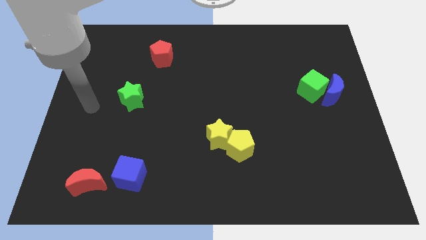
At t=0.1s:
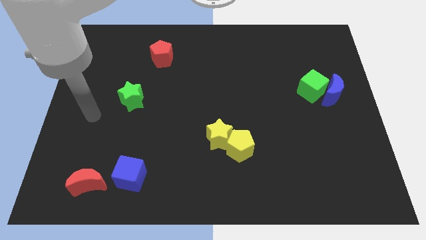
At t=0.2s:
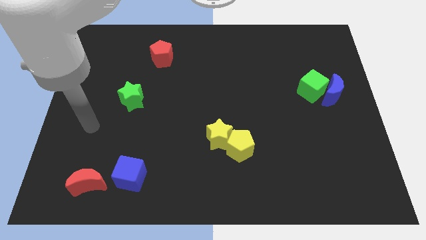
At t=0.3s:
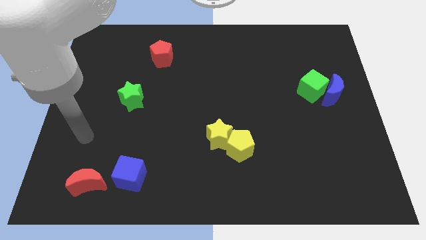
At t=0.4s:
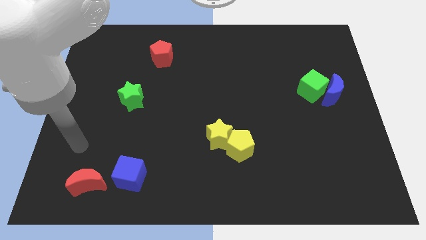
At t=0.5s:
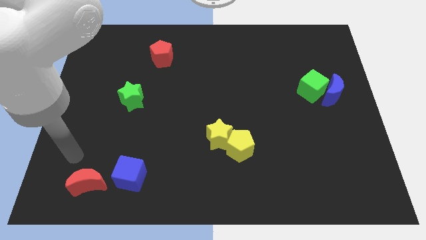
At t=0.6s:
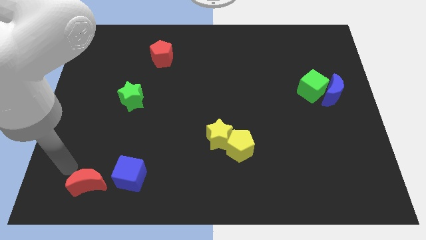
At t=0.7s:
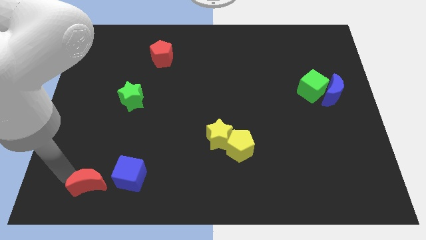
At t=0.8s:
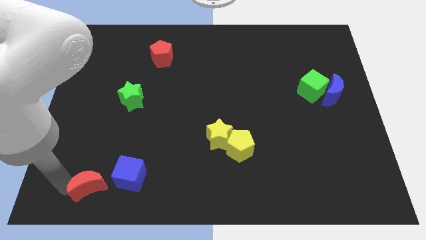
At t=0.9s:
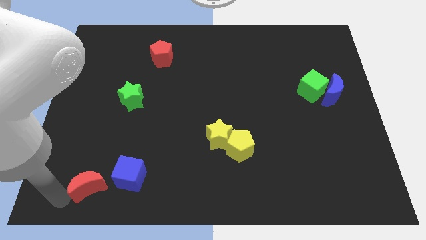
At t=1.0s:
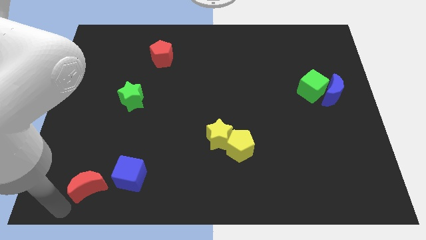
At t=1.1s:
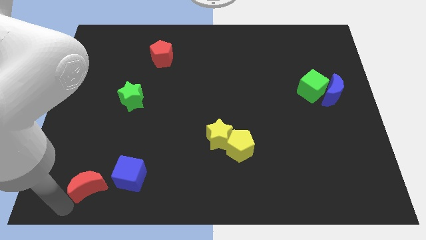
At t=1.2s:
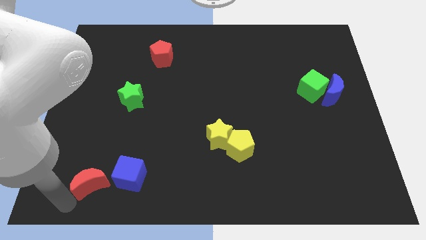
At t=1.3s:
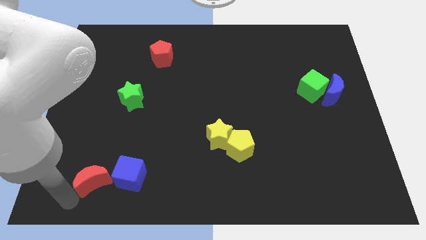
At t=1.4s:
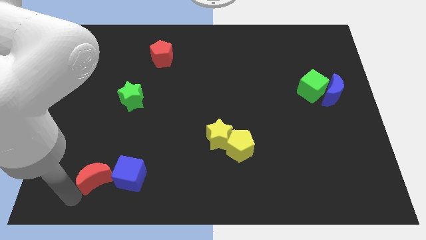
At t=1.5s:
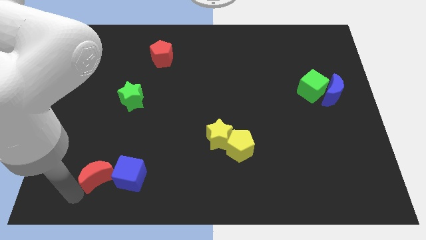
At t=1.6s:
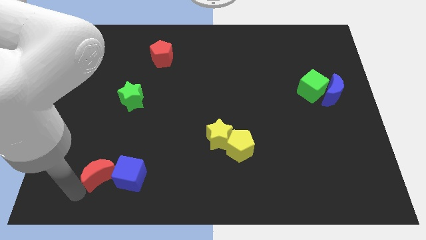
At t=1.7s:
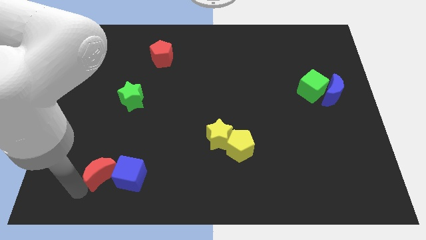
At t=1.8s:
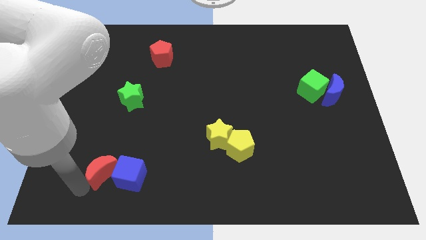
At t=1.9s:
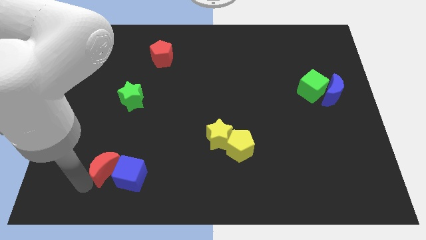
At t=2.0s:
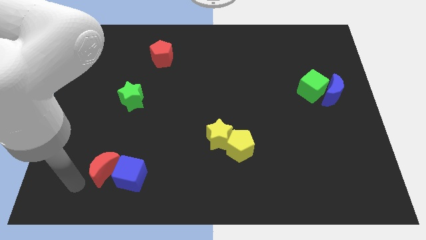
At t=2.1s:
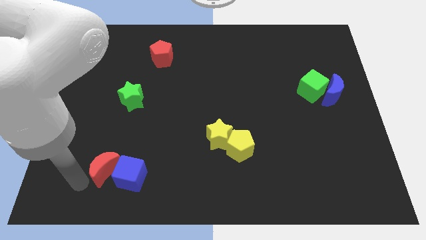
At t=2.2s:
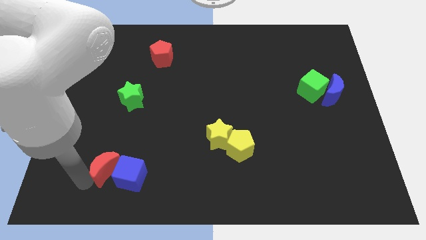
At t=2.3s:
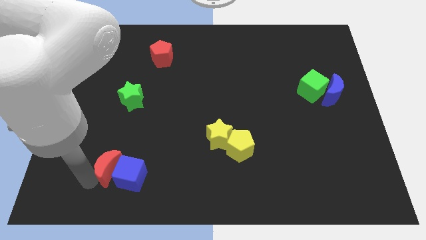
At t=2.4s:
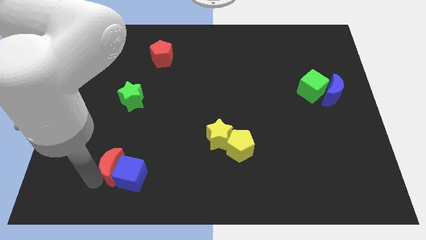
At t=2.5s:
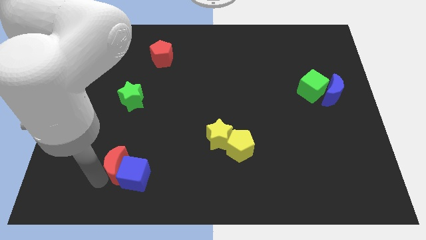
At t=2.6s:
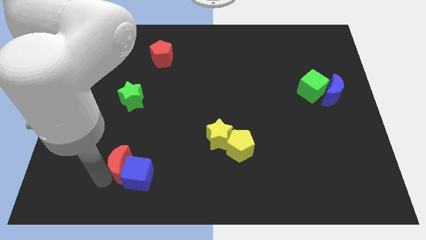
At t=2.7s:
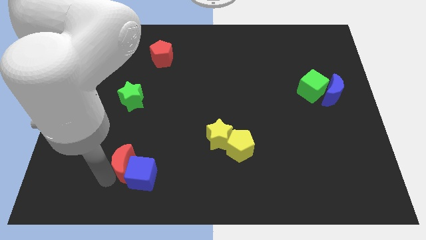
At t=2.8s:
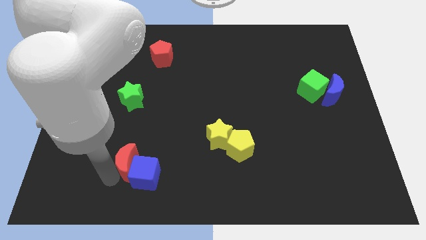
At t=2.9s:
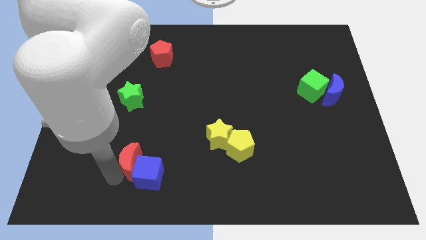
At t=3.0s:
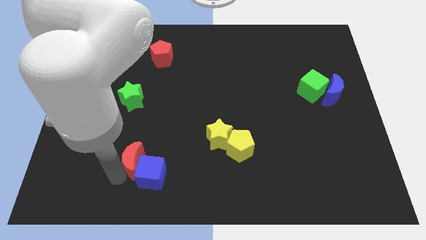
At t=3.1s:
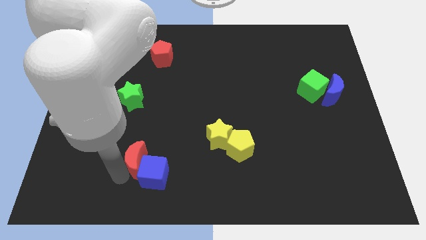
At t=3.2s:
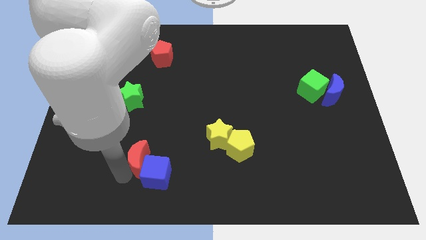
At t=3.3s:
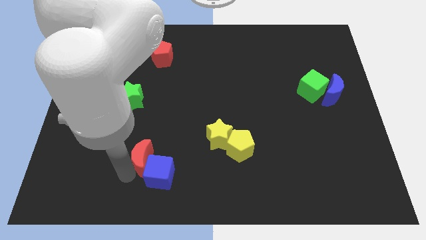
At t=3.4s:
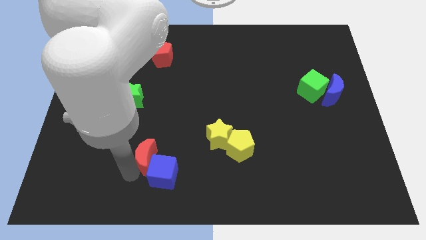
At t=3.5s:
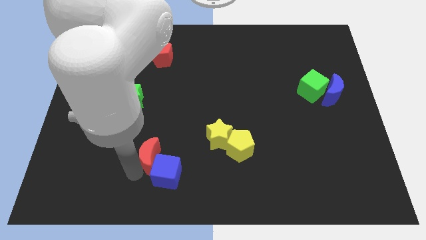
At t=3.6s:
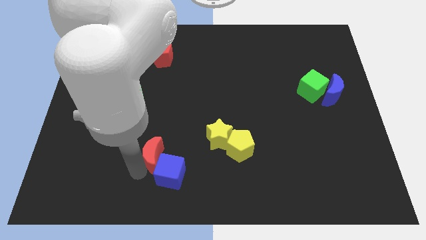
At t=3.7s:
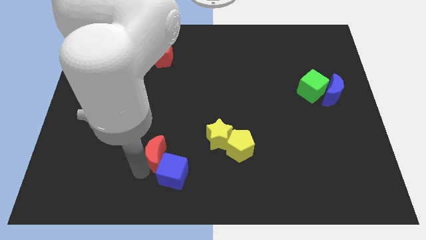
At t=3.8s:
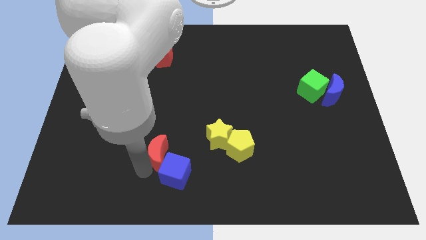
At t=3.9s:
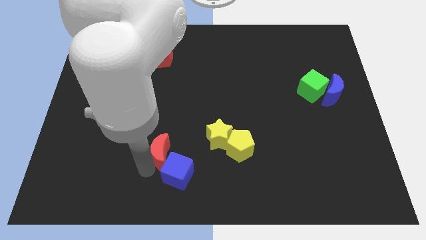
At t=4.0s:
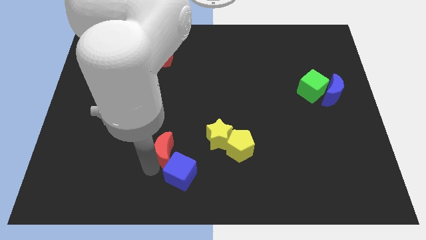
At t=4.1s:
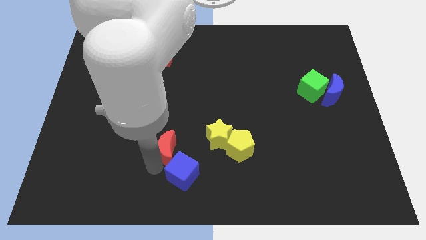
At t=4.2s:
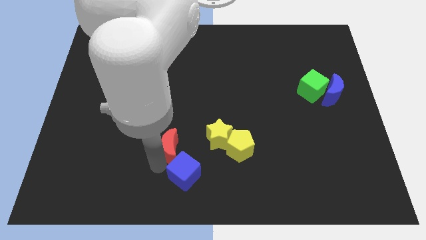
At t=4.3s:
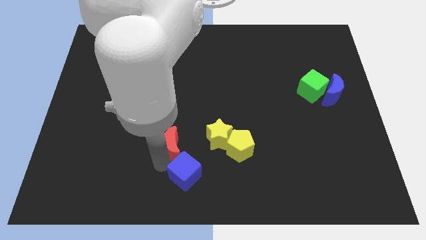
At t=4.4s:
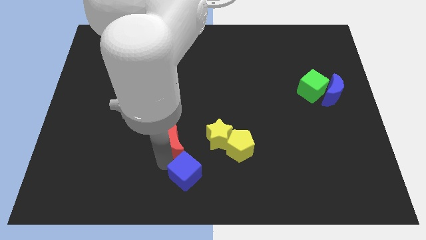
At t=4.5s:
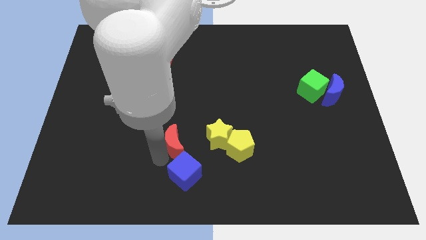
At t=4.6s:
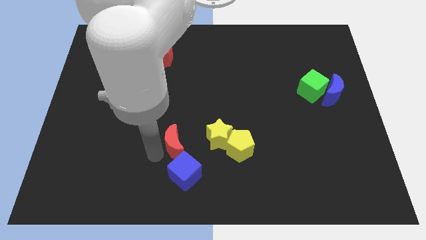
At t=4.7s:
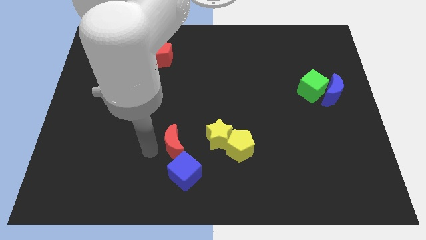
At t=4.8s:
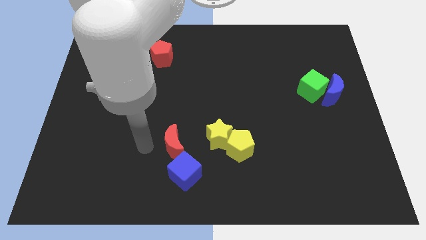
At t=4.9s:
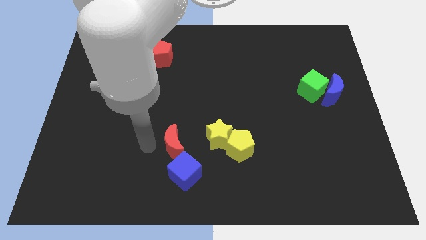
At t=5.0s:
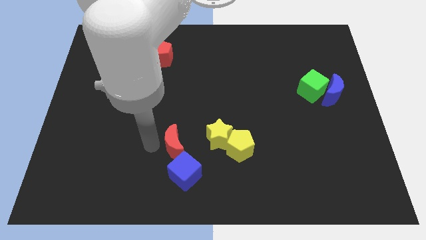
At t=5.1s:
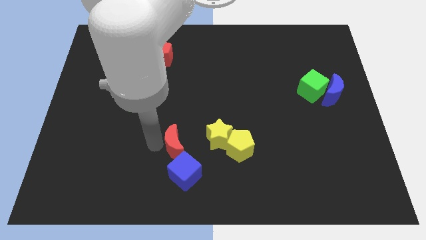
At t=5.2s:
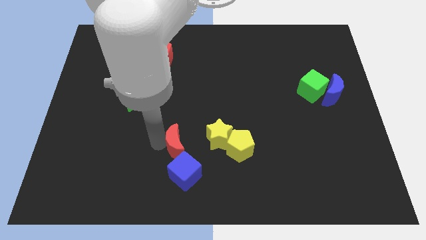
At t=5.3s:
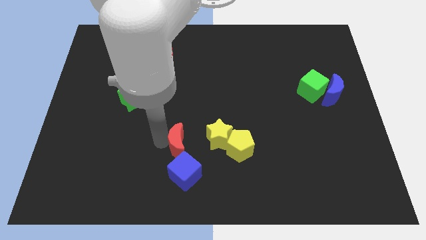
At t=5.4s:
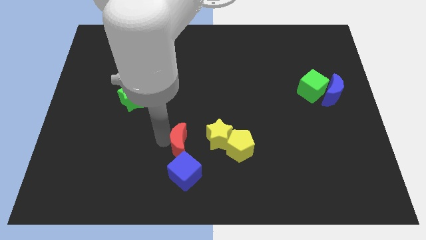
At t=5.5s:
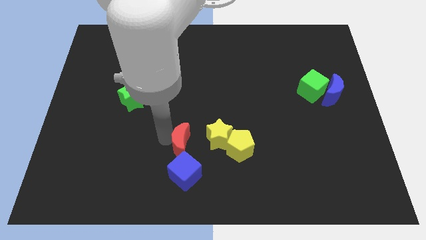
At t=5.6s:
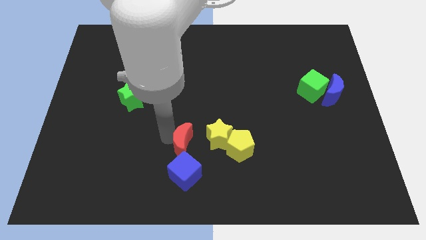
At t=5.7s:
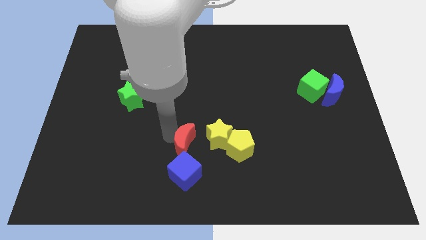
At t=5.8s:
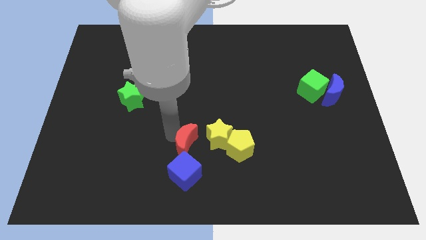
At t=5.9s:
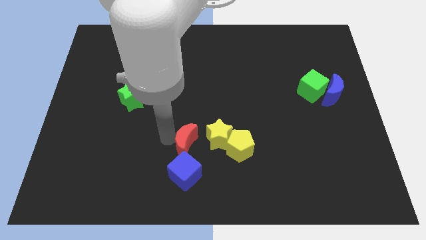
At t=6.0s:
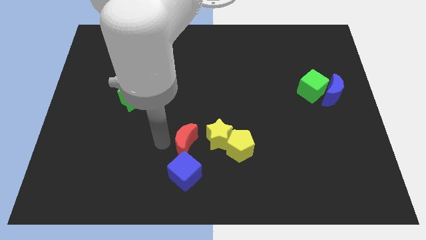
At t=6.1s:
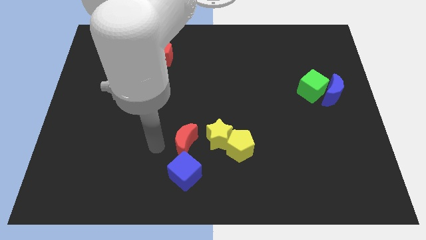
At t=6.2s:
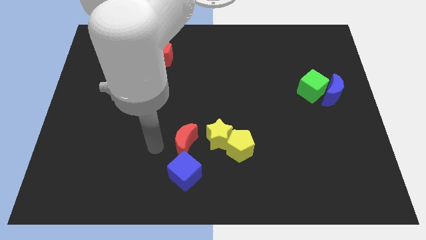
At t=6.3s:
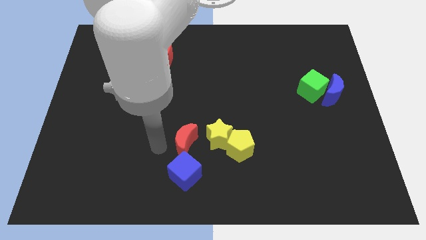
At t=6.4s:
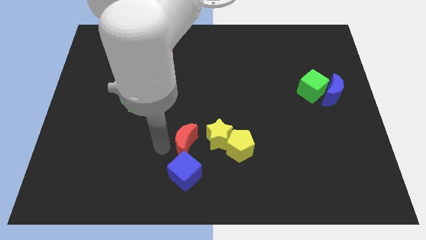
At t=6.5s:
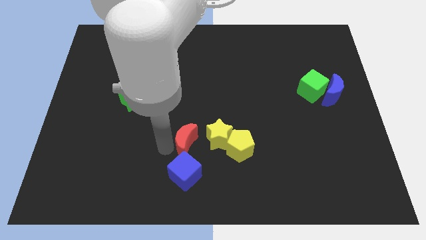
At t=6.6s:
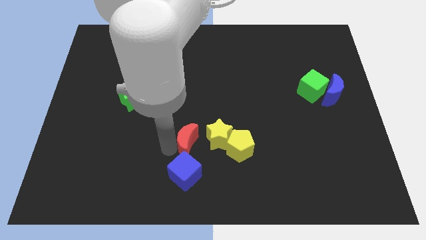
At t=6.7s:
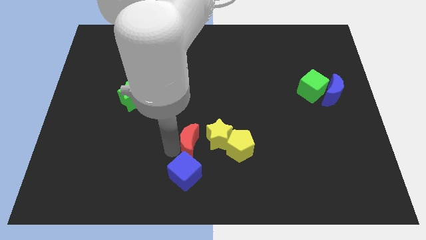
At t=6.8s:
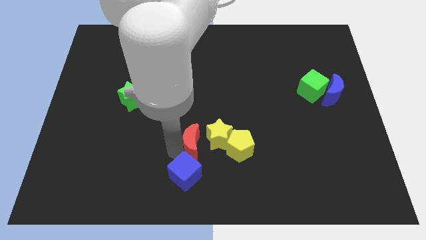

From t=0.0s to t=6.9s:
slide the red moon close to the yellow star

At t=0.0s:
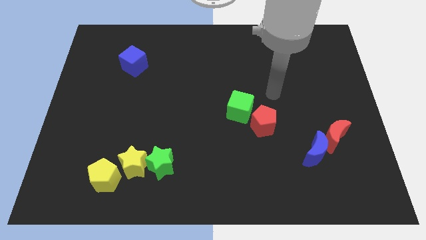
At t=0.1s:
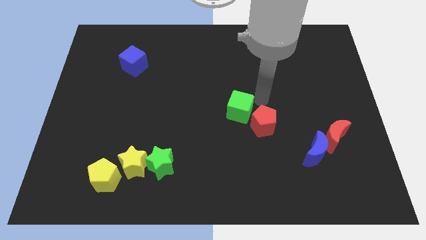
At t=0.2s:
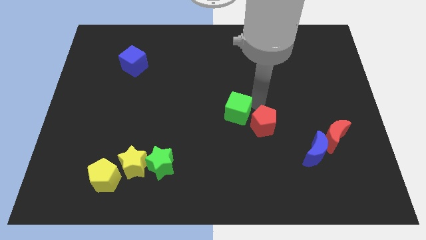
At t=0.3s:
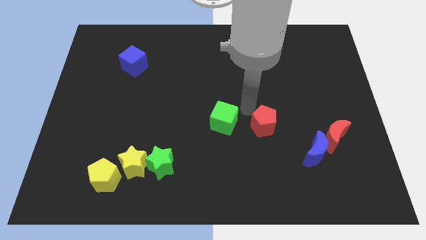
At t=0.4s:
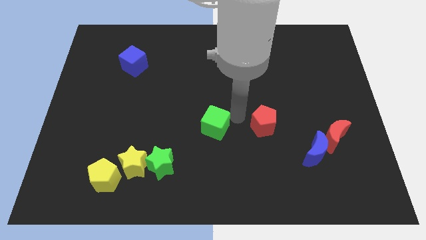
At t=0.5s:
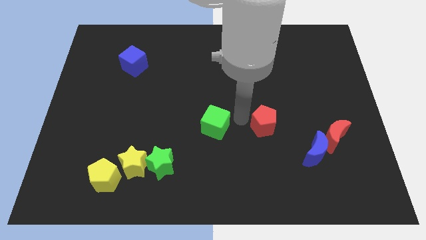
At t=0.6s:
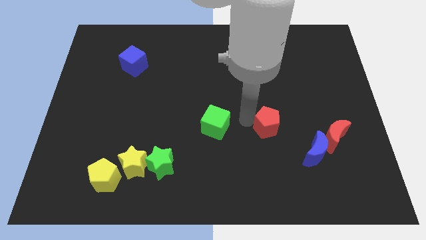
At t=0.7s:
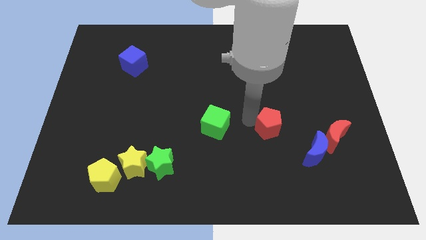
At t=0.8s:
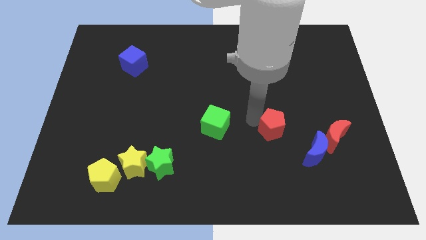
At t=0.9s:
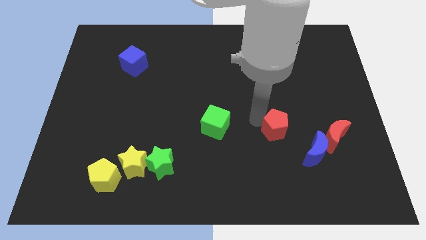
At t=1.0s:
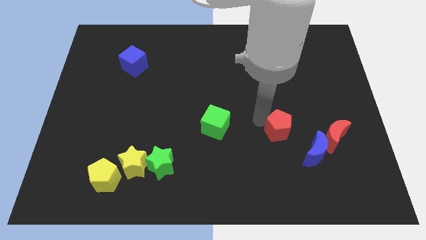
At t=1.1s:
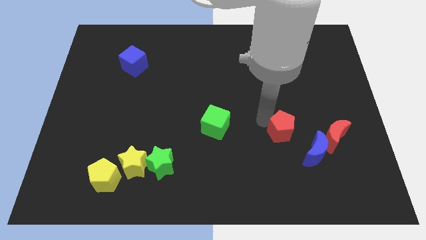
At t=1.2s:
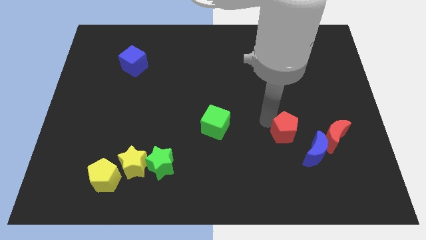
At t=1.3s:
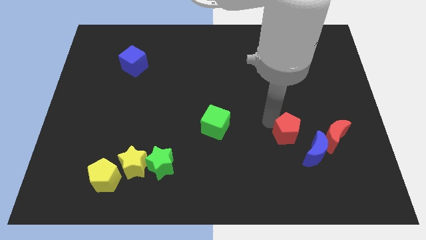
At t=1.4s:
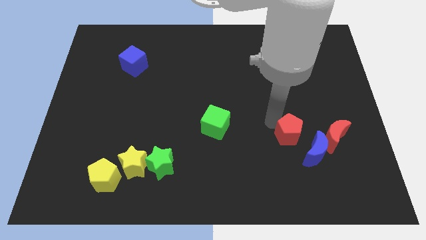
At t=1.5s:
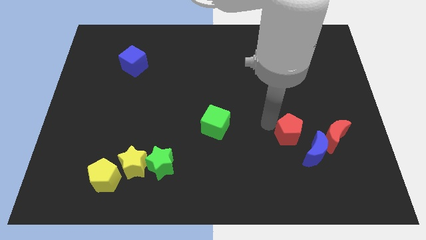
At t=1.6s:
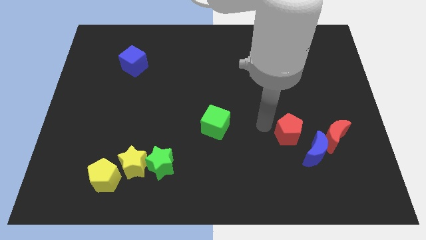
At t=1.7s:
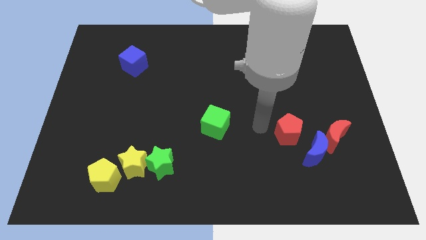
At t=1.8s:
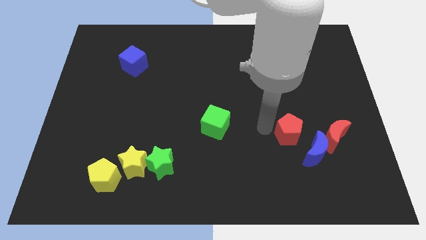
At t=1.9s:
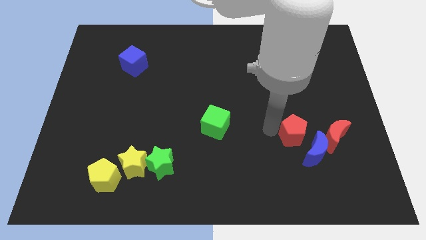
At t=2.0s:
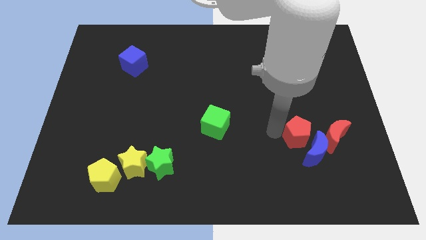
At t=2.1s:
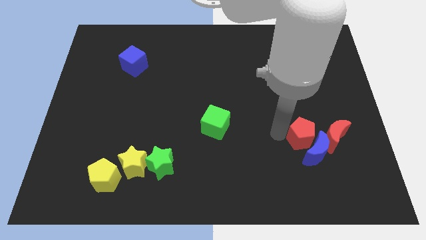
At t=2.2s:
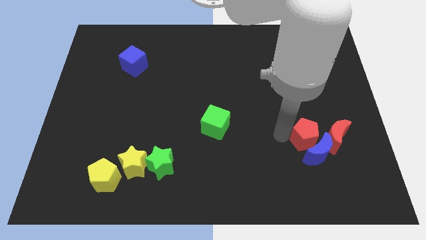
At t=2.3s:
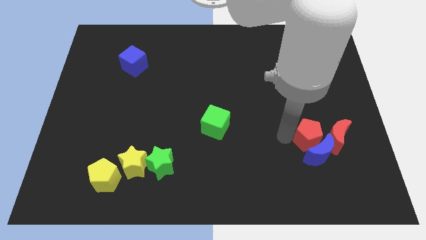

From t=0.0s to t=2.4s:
slide the red pentagon next to the red moon
